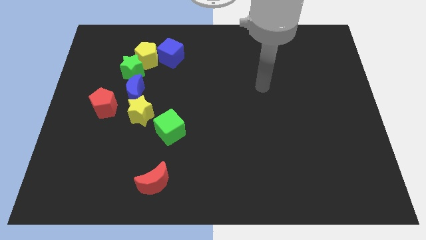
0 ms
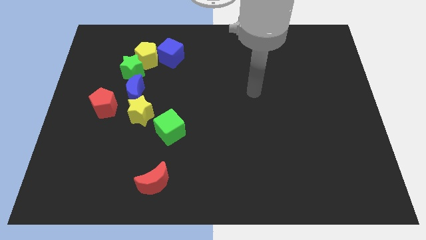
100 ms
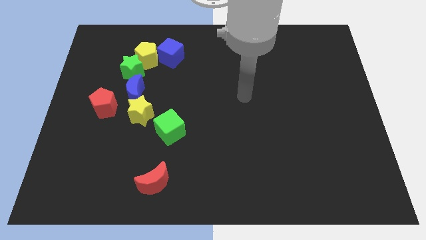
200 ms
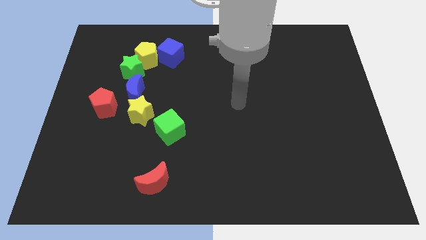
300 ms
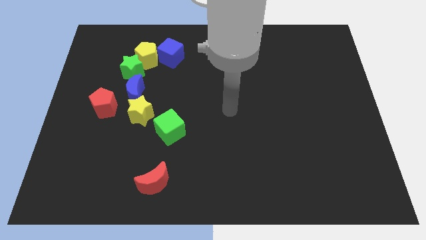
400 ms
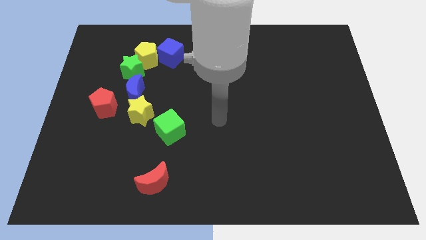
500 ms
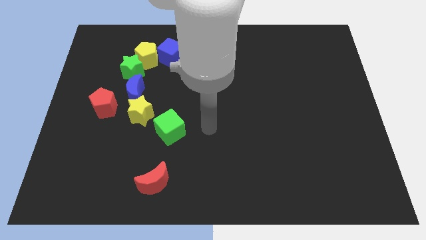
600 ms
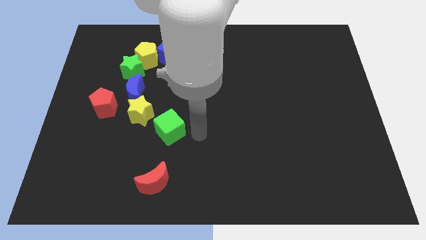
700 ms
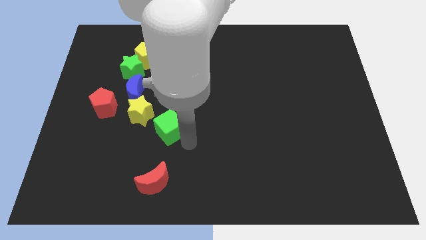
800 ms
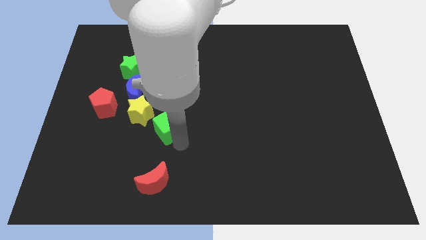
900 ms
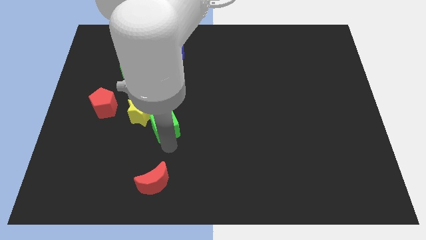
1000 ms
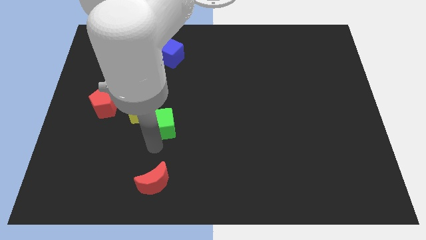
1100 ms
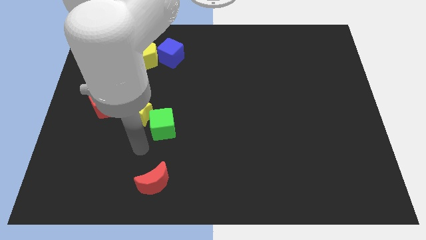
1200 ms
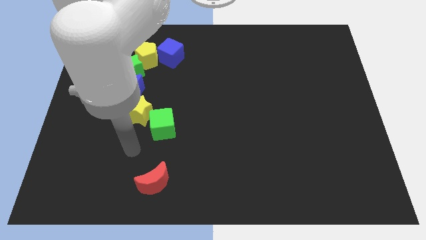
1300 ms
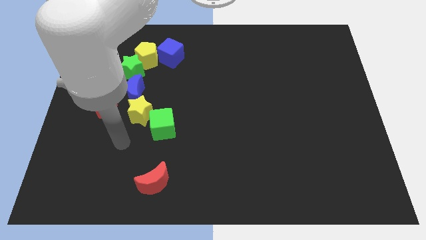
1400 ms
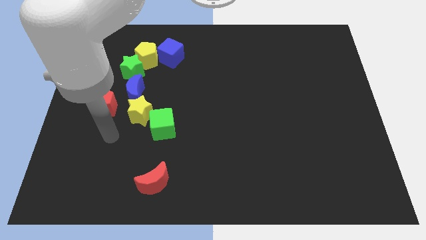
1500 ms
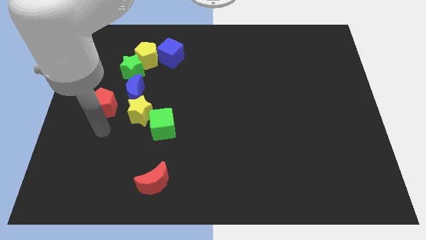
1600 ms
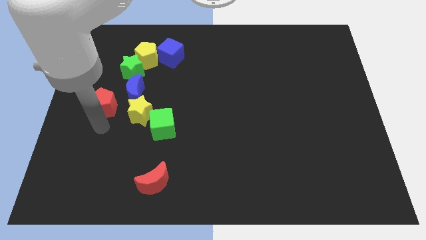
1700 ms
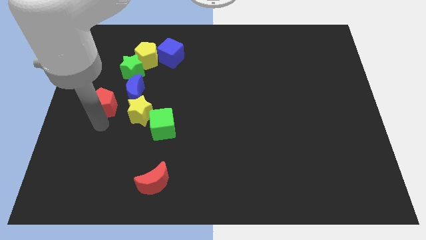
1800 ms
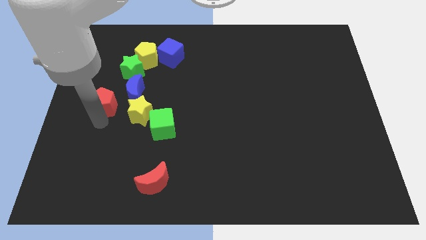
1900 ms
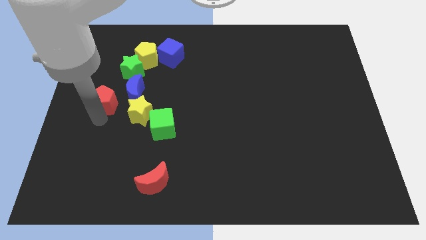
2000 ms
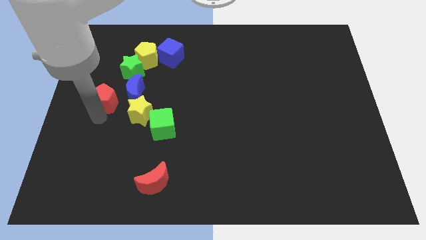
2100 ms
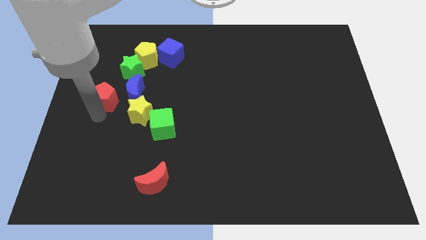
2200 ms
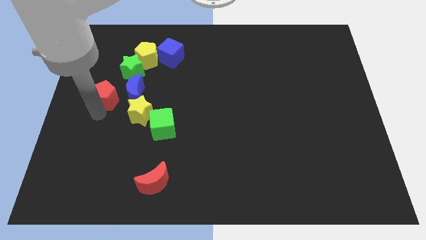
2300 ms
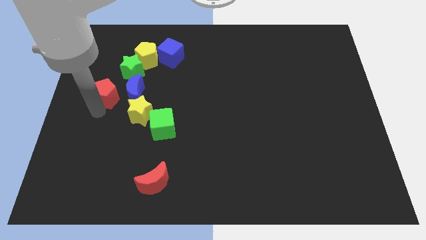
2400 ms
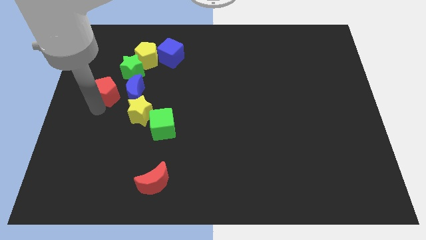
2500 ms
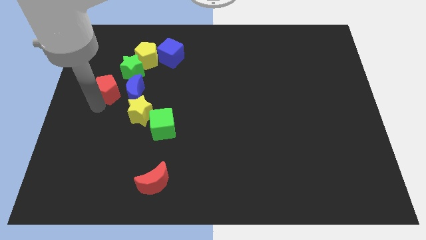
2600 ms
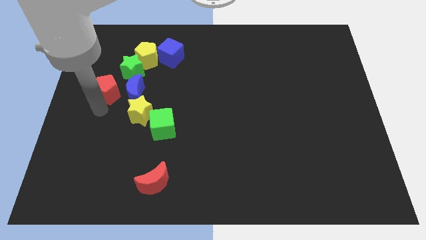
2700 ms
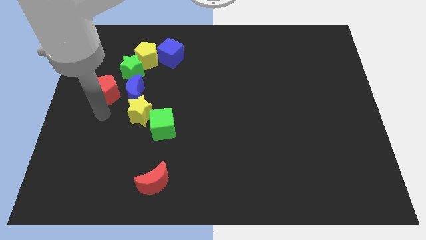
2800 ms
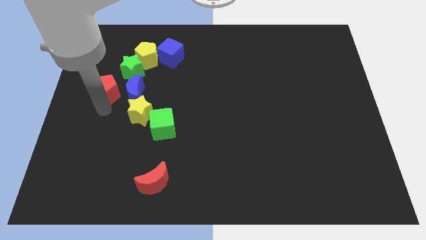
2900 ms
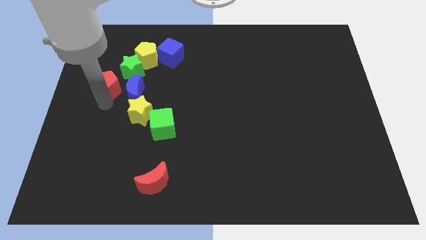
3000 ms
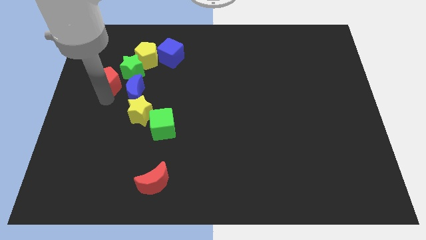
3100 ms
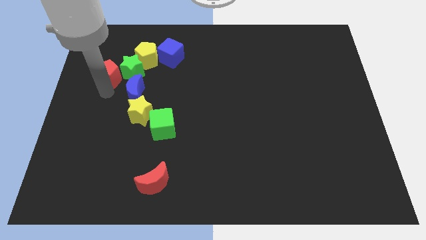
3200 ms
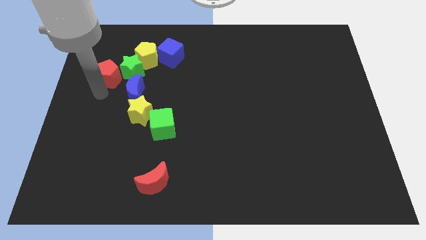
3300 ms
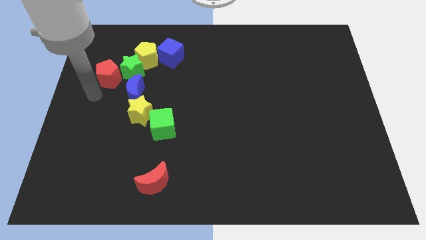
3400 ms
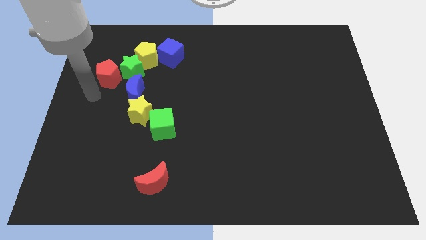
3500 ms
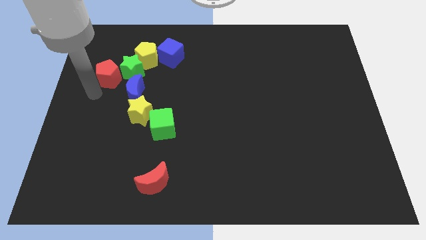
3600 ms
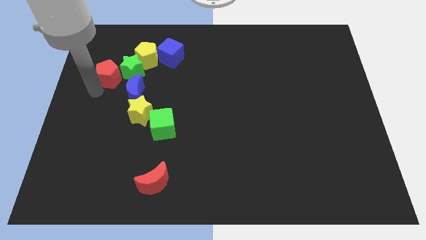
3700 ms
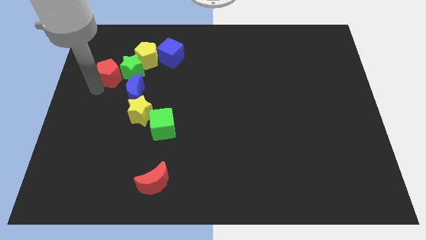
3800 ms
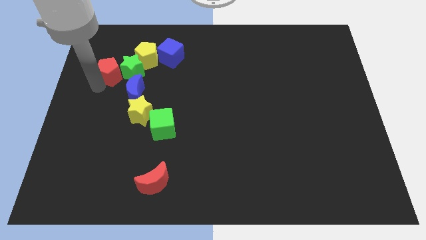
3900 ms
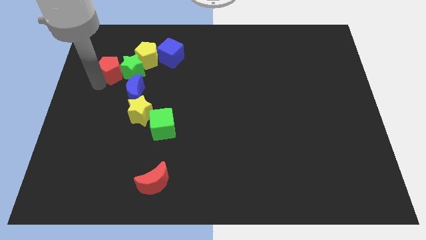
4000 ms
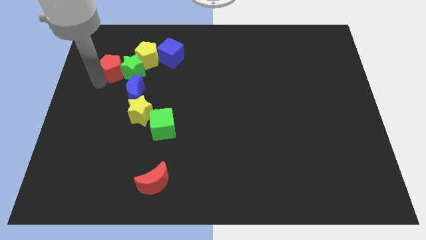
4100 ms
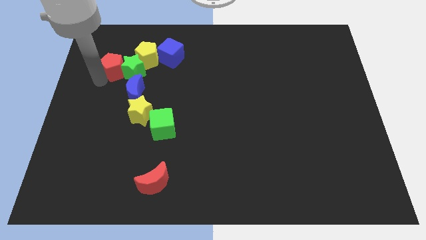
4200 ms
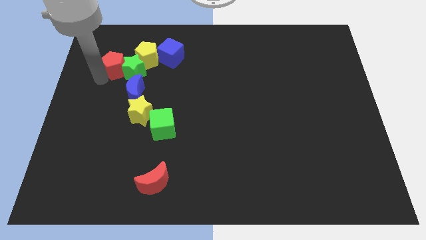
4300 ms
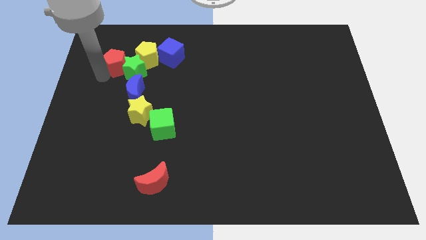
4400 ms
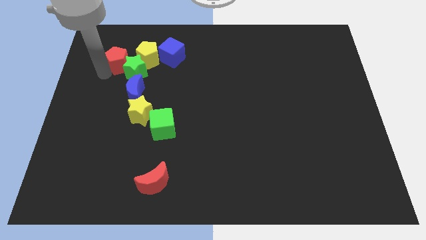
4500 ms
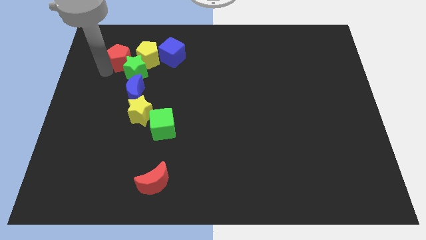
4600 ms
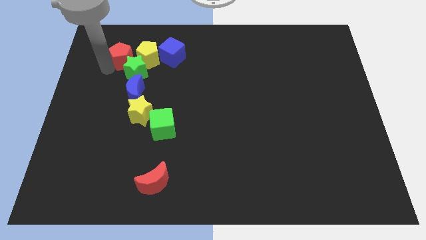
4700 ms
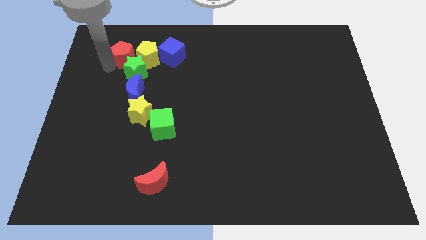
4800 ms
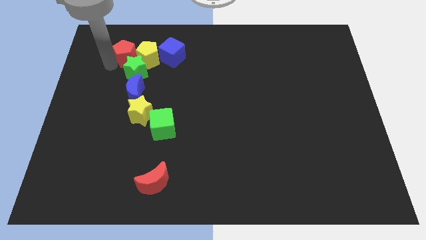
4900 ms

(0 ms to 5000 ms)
slide the red pentagon towards the yellow pentagon

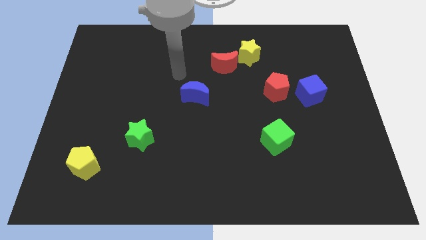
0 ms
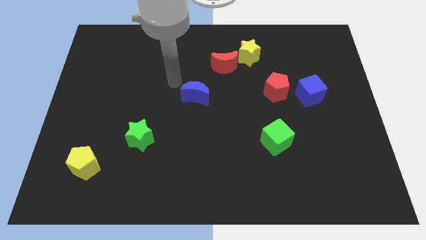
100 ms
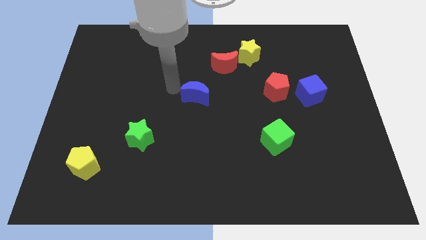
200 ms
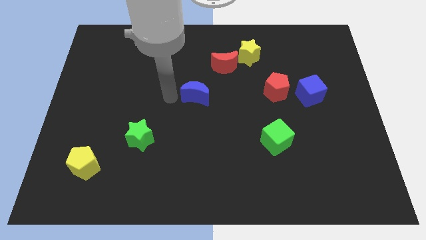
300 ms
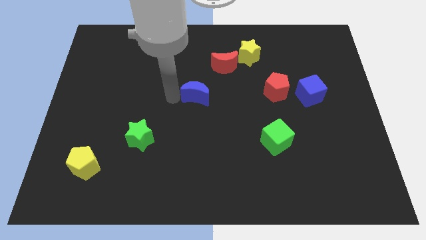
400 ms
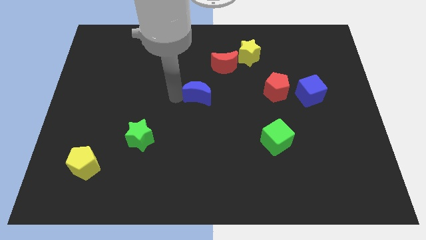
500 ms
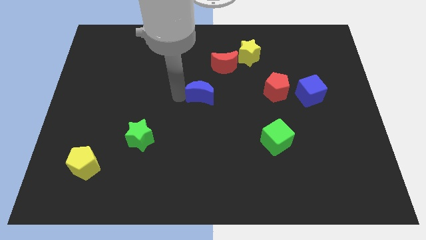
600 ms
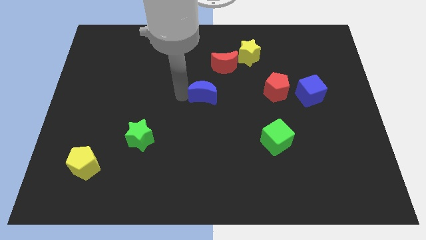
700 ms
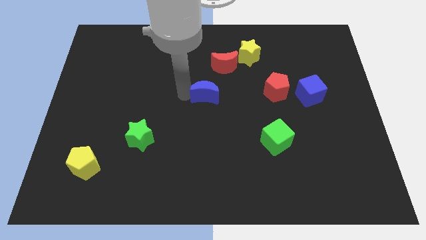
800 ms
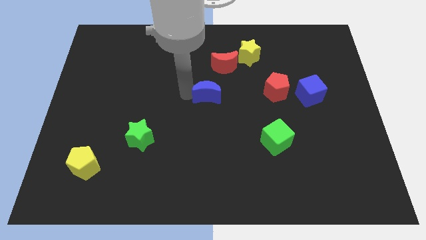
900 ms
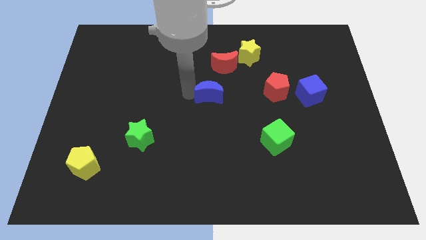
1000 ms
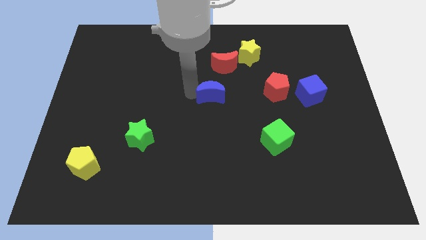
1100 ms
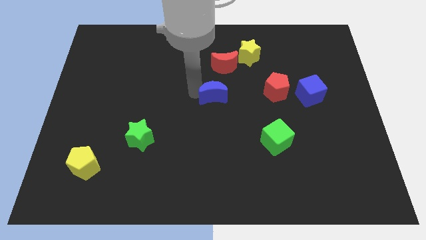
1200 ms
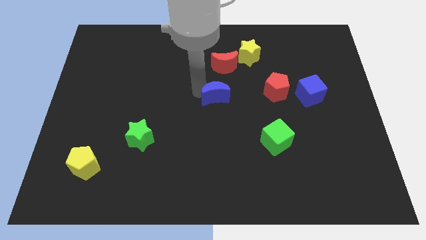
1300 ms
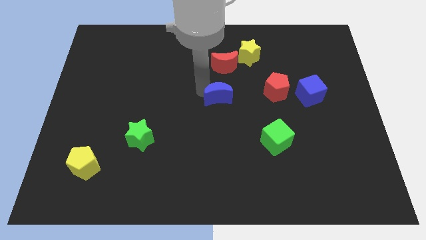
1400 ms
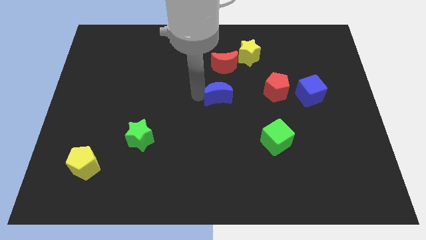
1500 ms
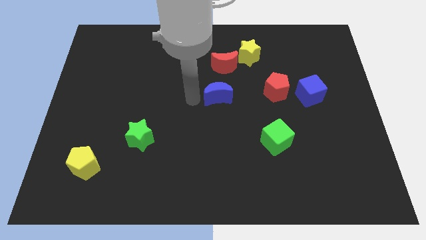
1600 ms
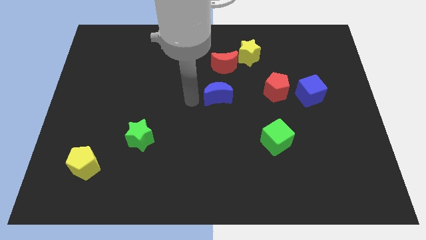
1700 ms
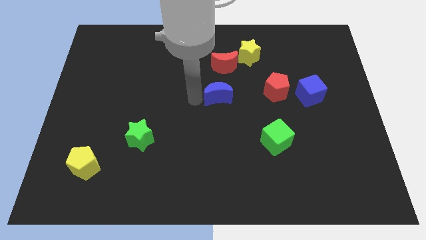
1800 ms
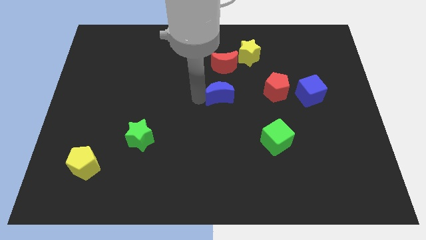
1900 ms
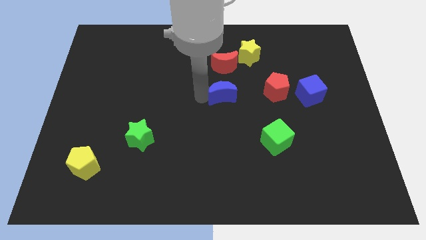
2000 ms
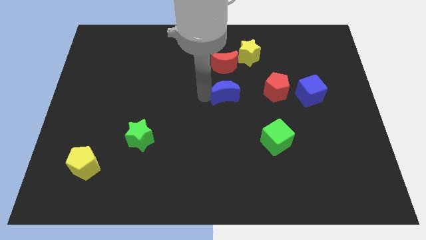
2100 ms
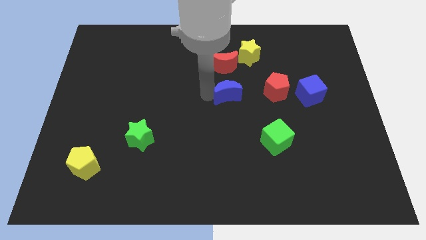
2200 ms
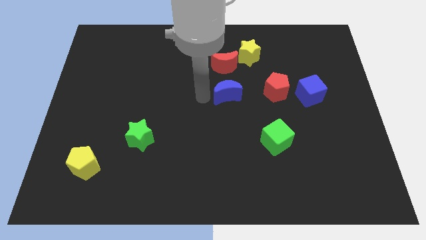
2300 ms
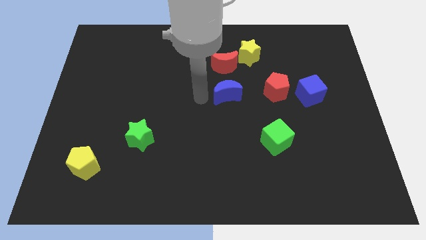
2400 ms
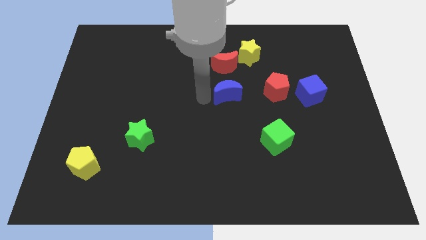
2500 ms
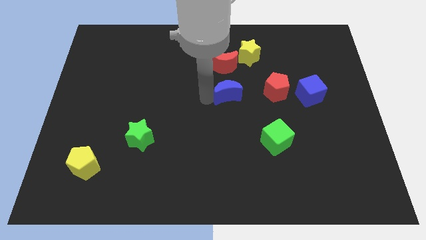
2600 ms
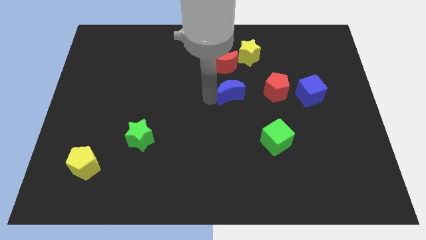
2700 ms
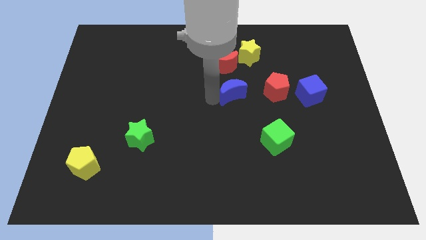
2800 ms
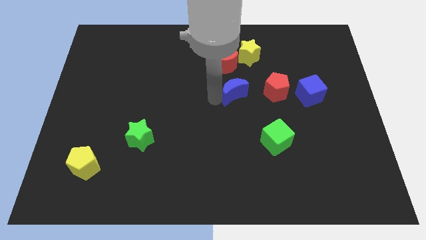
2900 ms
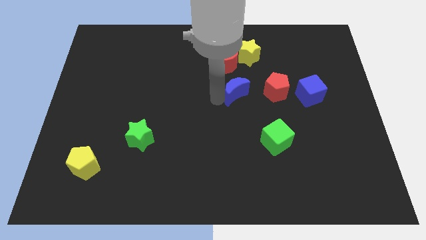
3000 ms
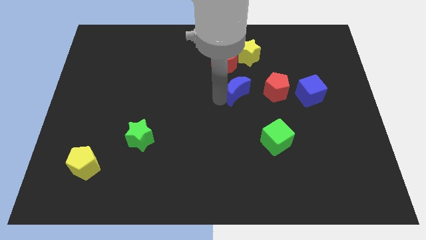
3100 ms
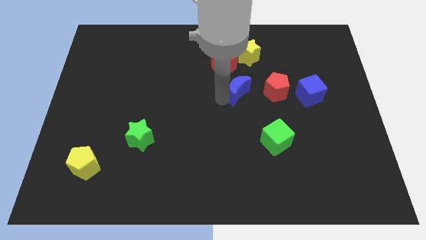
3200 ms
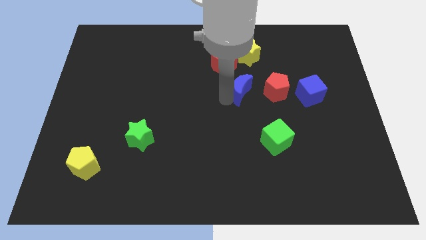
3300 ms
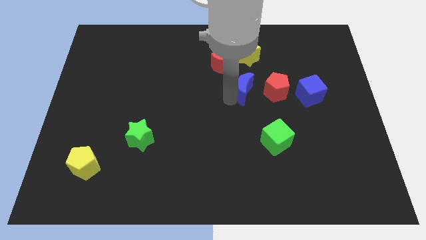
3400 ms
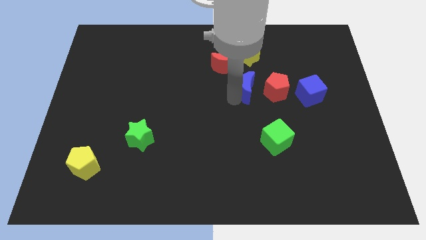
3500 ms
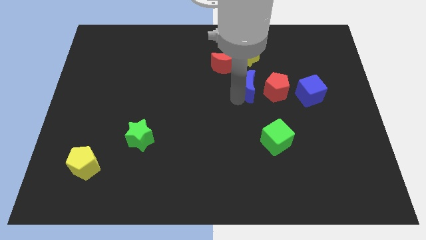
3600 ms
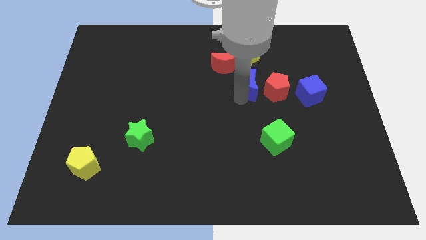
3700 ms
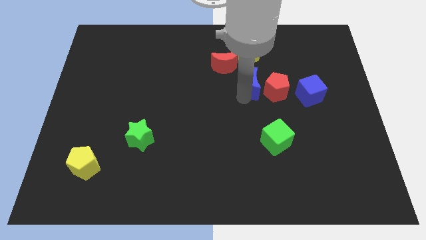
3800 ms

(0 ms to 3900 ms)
slide the blue moon close to the red pentagon
